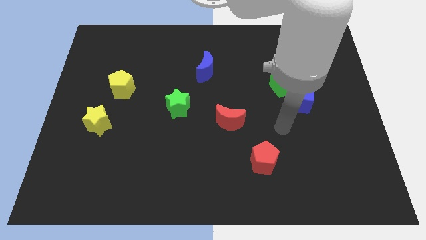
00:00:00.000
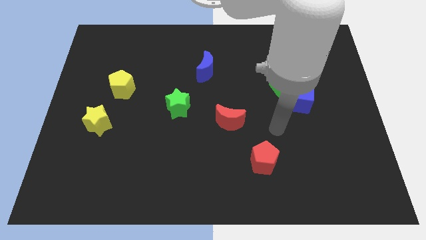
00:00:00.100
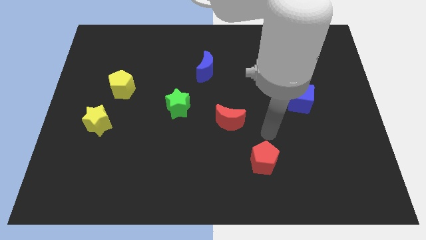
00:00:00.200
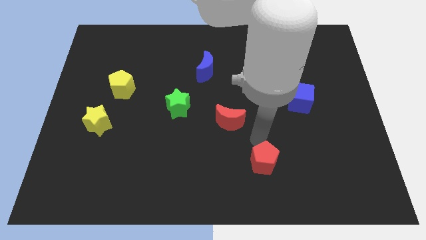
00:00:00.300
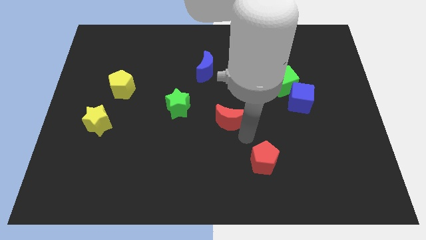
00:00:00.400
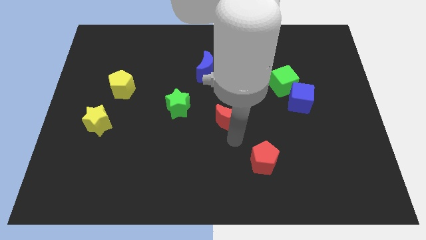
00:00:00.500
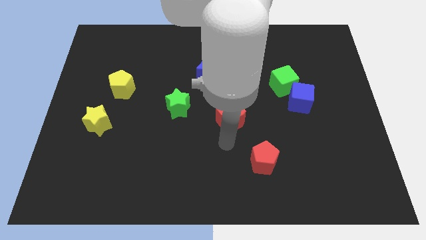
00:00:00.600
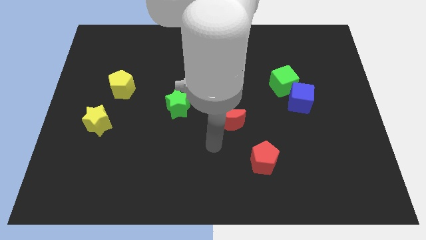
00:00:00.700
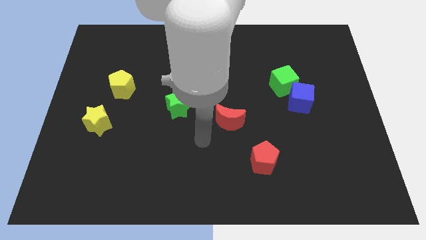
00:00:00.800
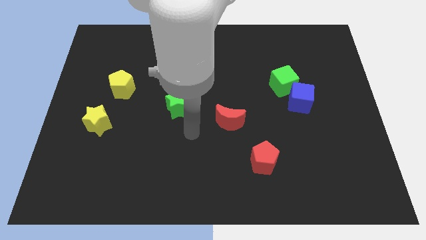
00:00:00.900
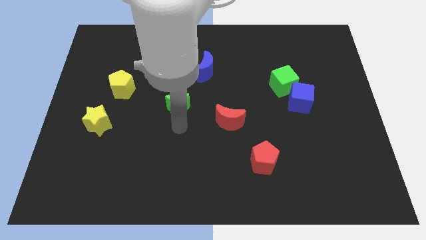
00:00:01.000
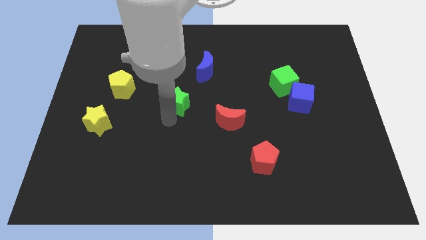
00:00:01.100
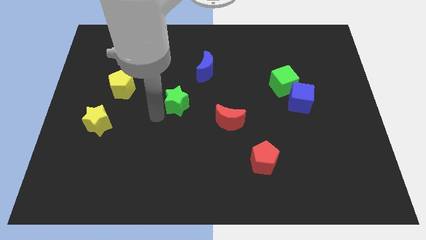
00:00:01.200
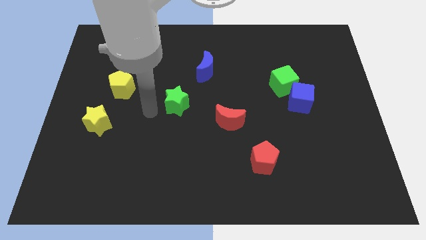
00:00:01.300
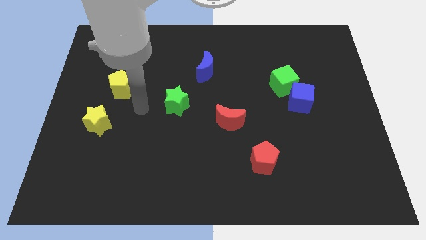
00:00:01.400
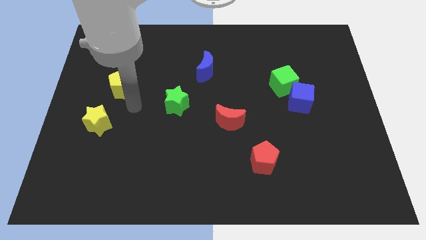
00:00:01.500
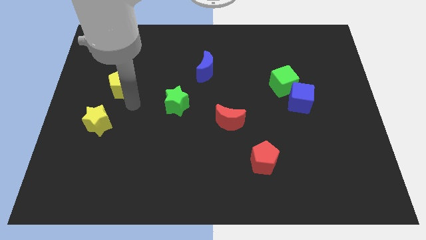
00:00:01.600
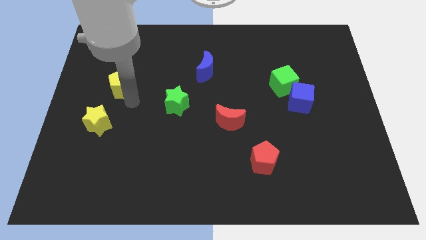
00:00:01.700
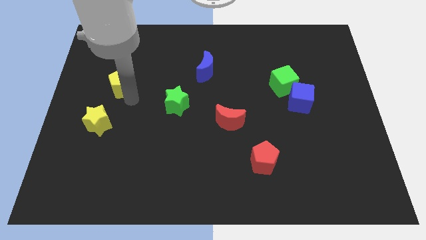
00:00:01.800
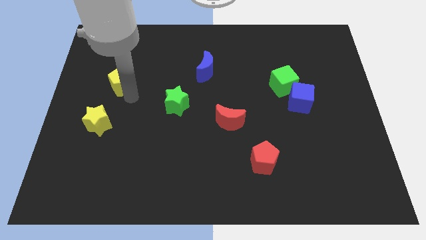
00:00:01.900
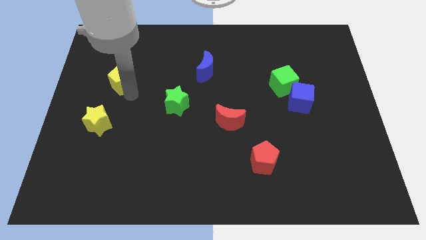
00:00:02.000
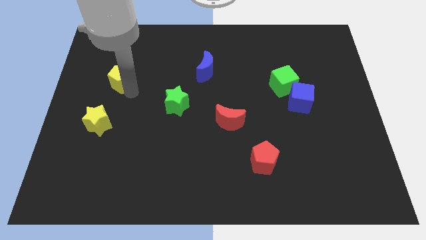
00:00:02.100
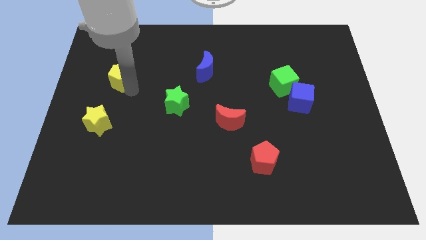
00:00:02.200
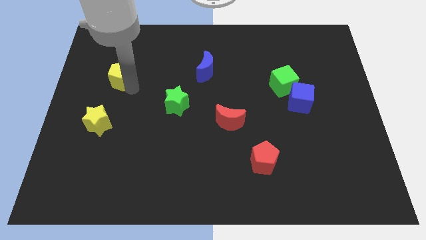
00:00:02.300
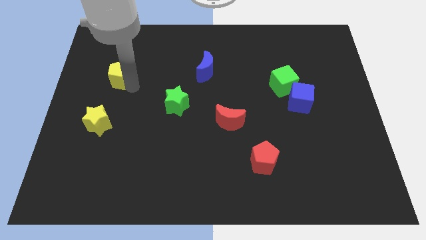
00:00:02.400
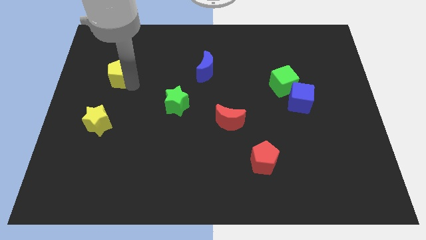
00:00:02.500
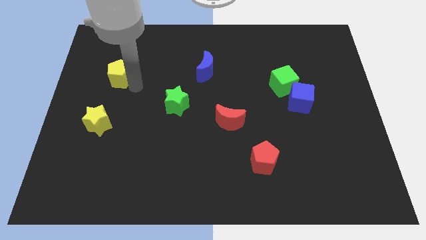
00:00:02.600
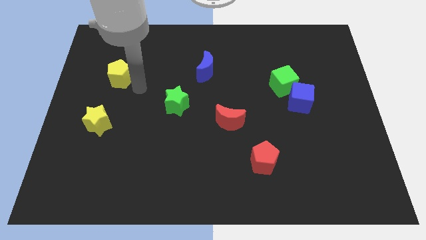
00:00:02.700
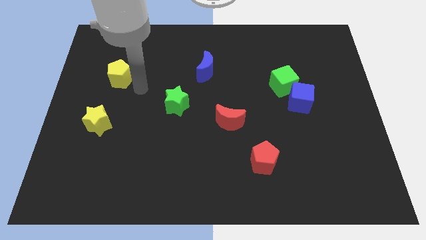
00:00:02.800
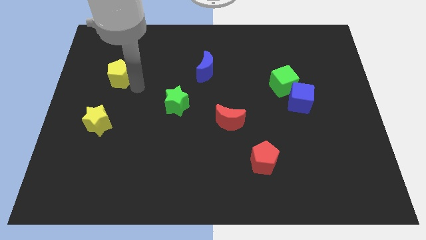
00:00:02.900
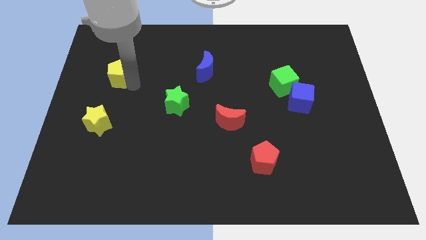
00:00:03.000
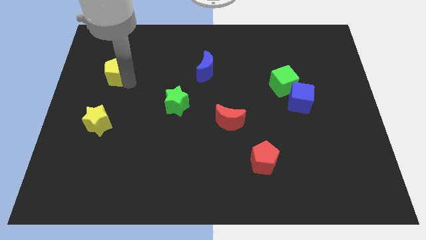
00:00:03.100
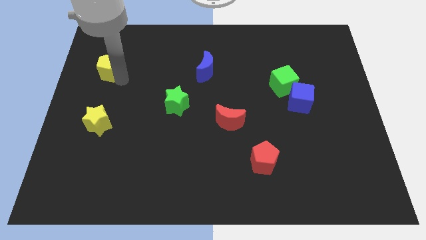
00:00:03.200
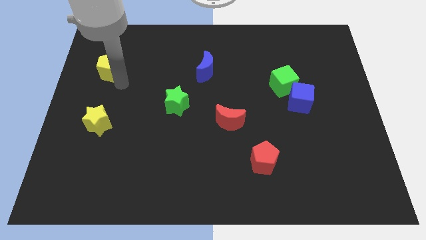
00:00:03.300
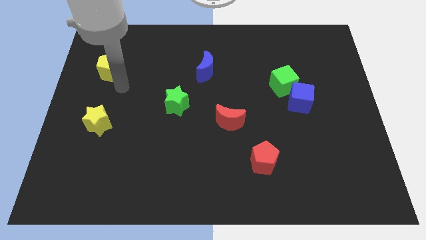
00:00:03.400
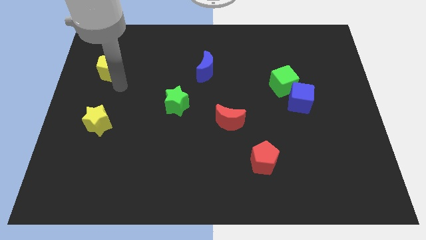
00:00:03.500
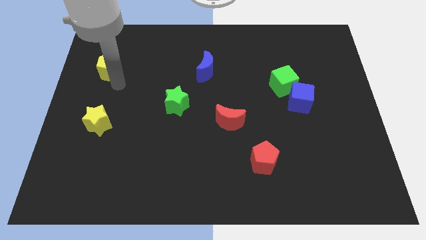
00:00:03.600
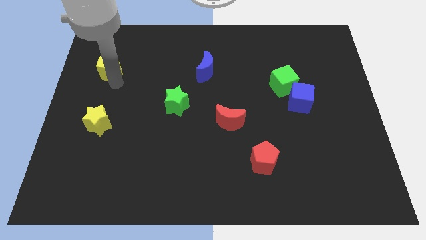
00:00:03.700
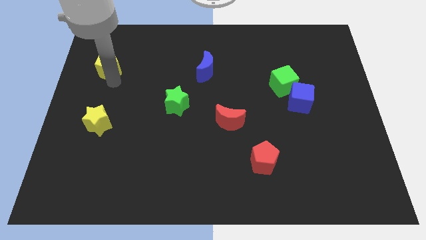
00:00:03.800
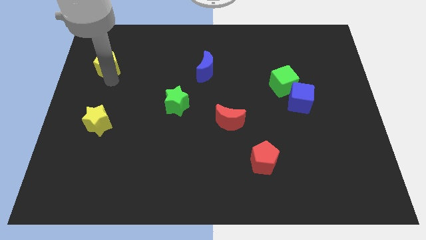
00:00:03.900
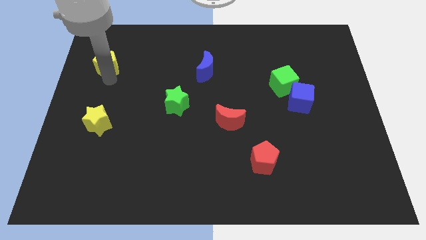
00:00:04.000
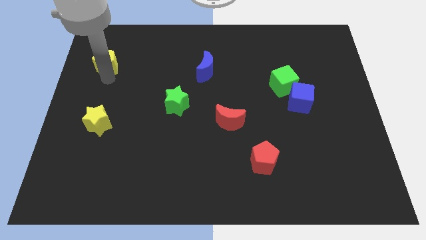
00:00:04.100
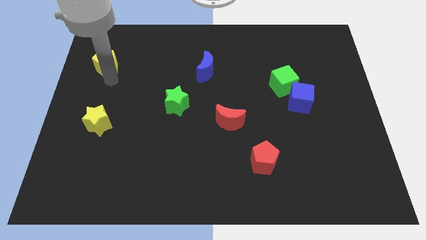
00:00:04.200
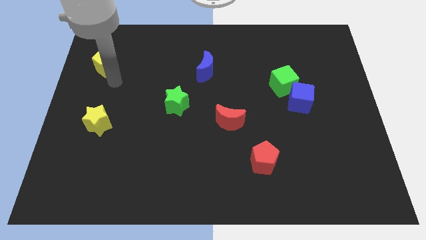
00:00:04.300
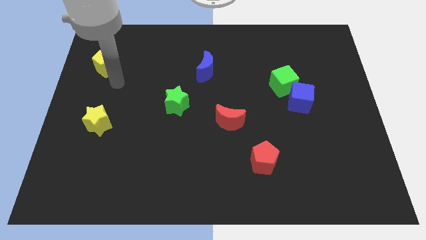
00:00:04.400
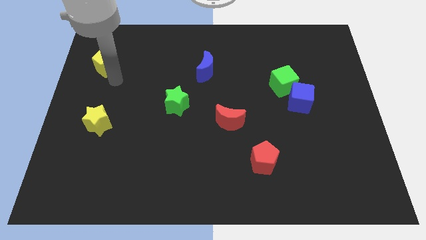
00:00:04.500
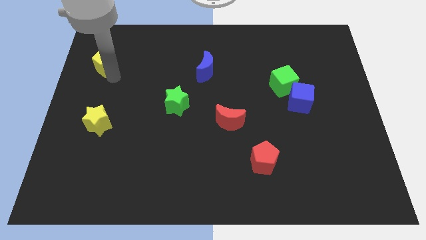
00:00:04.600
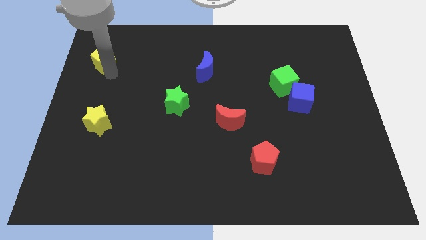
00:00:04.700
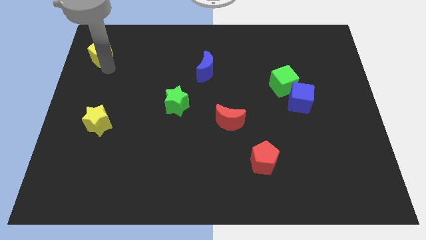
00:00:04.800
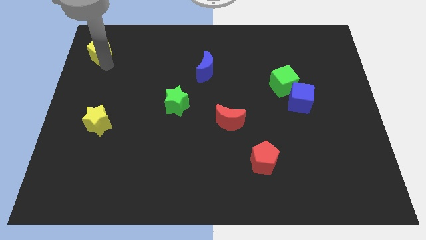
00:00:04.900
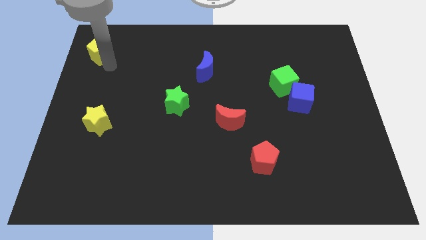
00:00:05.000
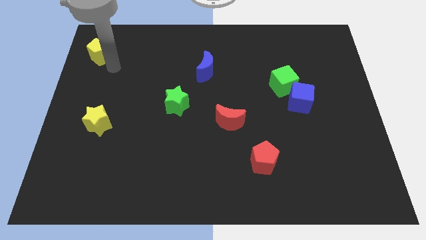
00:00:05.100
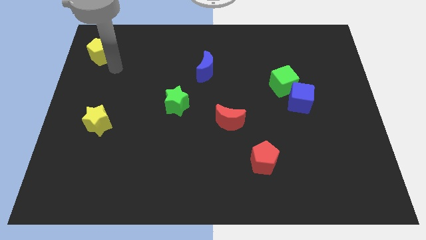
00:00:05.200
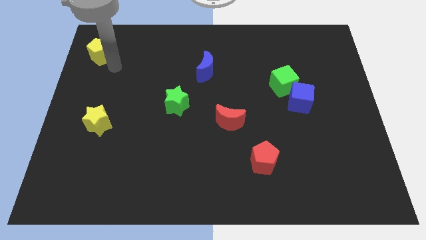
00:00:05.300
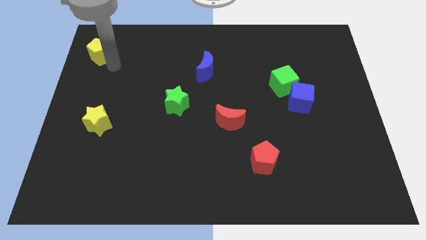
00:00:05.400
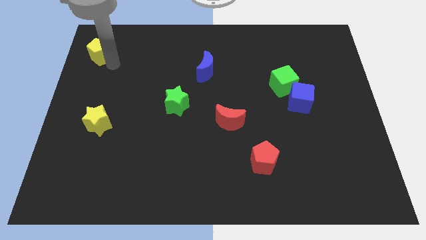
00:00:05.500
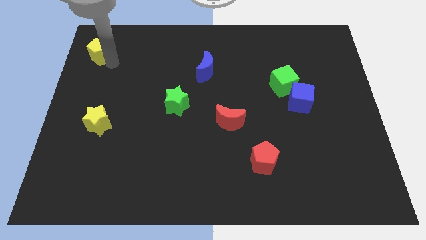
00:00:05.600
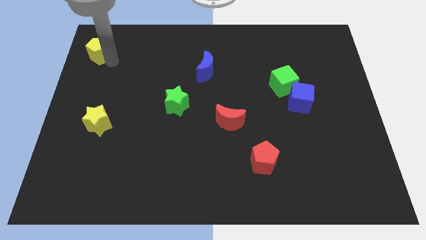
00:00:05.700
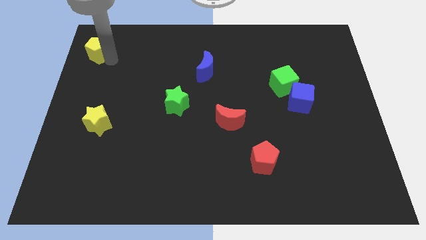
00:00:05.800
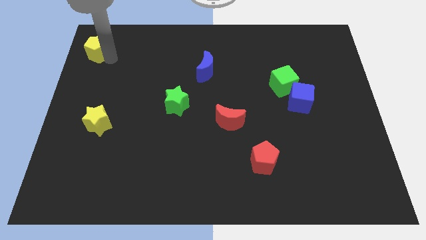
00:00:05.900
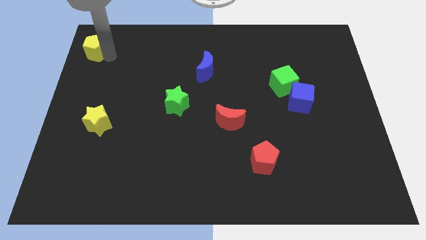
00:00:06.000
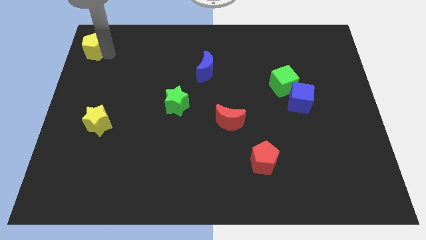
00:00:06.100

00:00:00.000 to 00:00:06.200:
put the yellow pentagon to the upper left corner

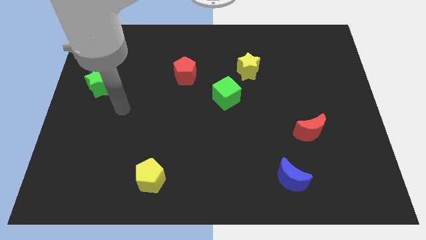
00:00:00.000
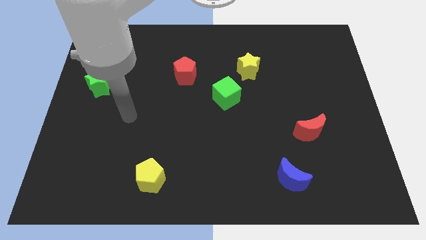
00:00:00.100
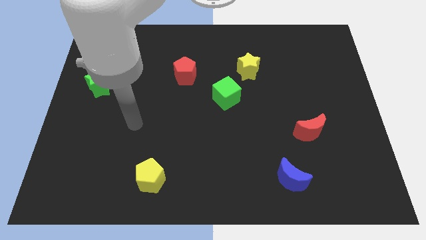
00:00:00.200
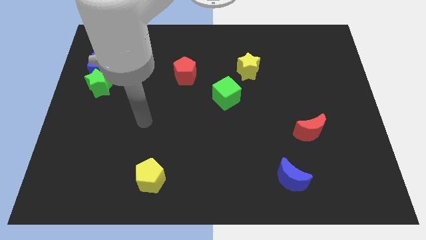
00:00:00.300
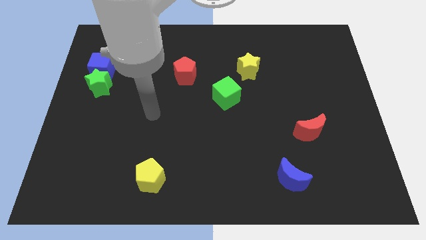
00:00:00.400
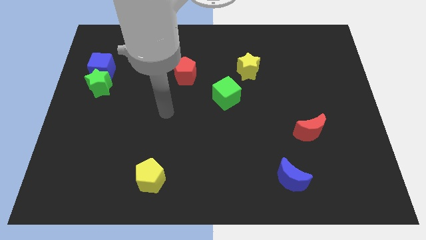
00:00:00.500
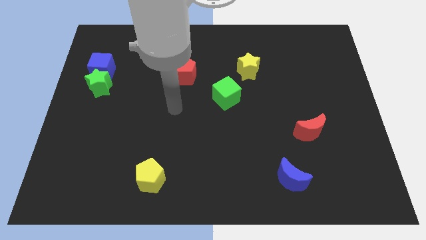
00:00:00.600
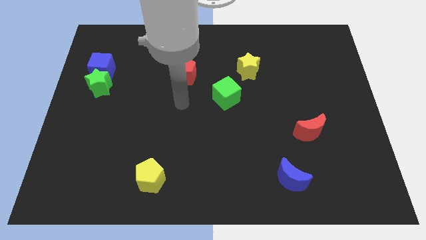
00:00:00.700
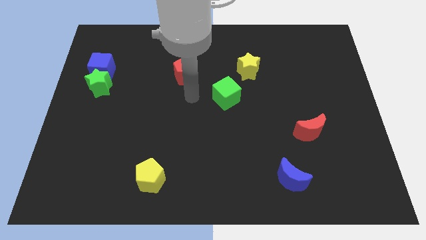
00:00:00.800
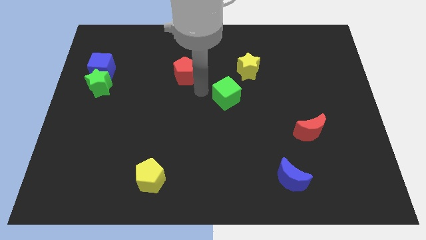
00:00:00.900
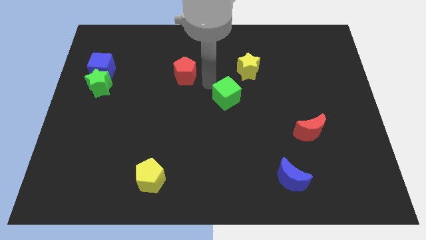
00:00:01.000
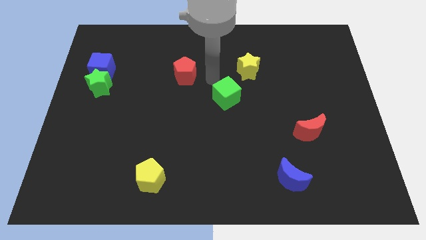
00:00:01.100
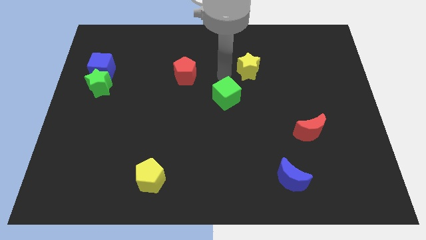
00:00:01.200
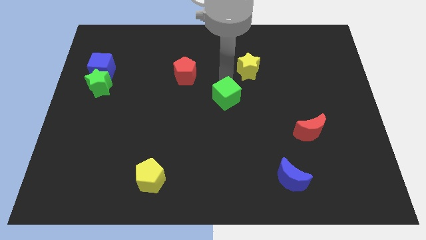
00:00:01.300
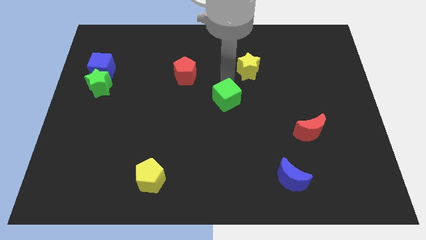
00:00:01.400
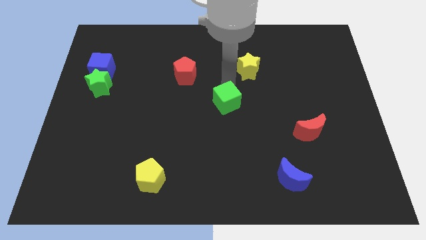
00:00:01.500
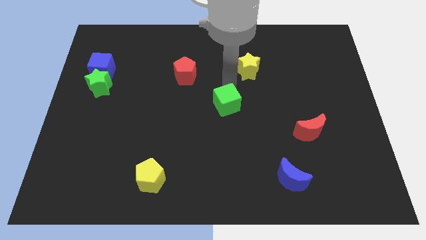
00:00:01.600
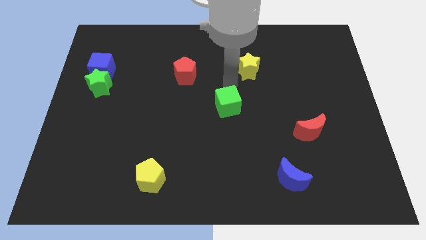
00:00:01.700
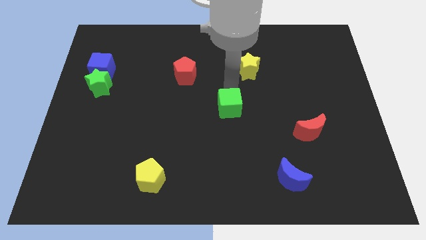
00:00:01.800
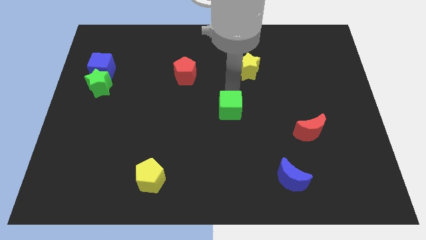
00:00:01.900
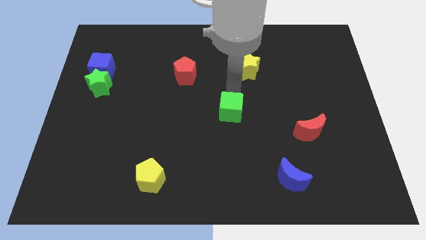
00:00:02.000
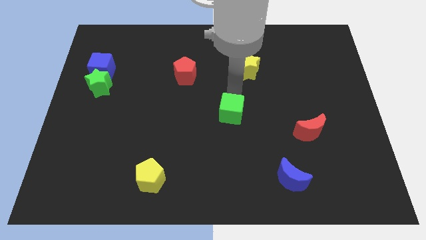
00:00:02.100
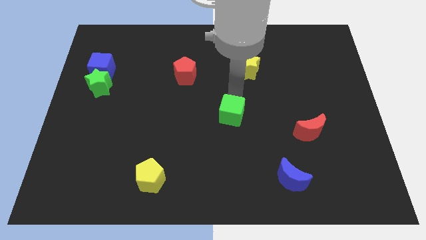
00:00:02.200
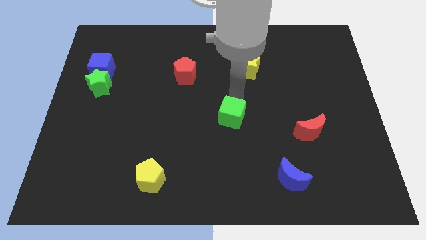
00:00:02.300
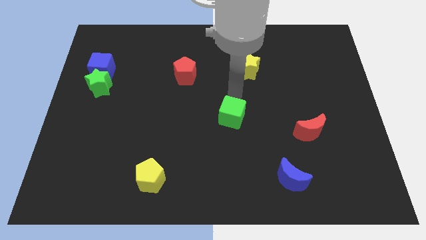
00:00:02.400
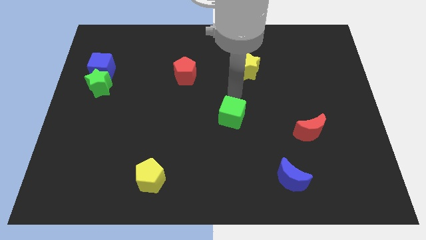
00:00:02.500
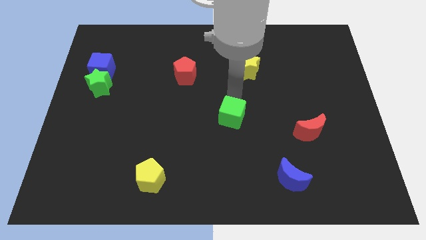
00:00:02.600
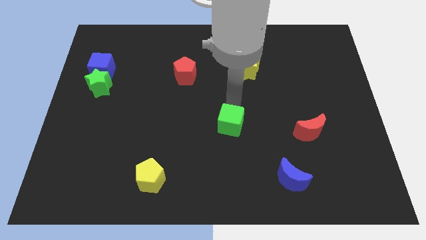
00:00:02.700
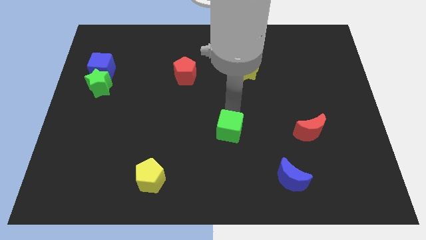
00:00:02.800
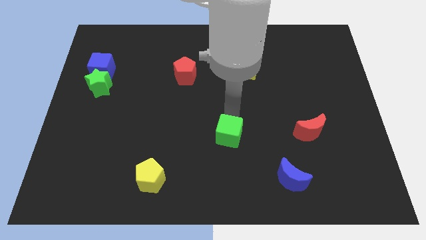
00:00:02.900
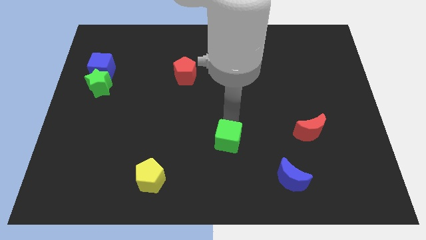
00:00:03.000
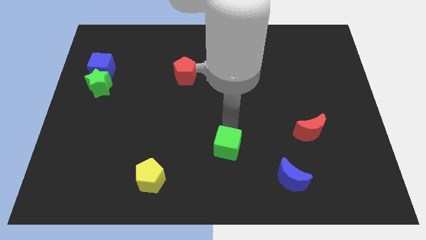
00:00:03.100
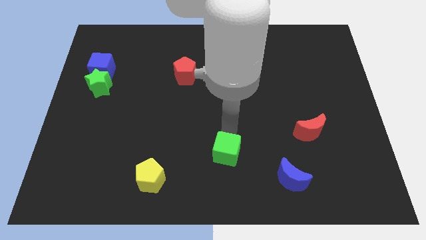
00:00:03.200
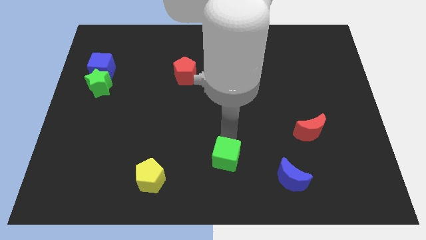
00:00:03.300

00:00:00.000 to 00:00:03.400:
push the green cube to the bottom
